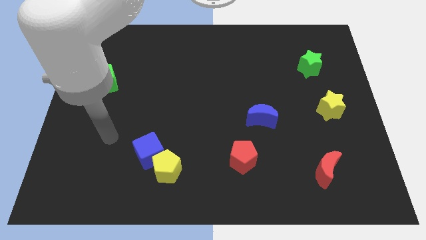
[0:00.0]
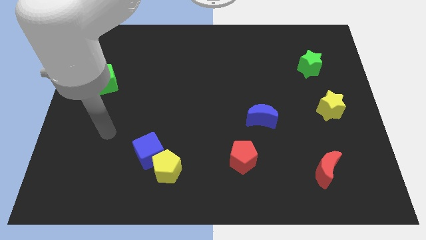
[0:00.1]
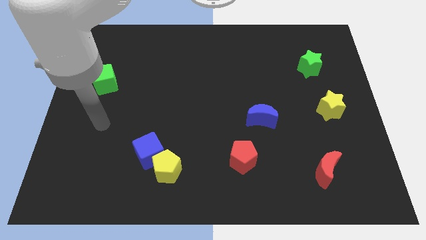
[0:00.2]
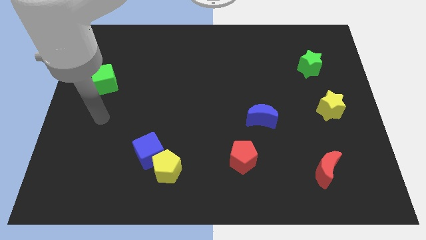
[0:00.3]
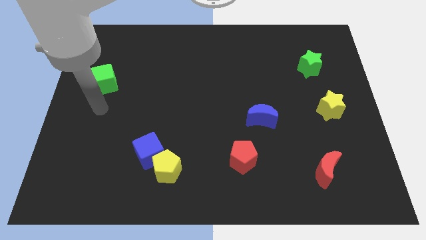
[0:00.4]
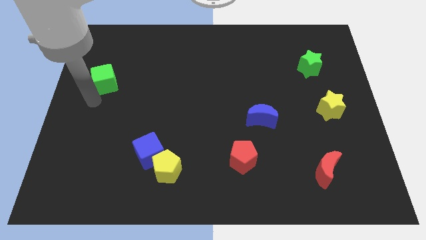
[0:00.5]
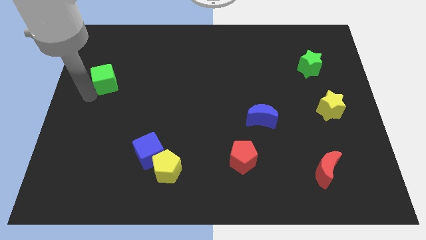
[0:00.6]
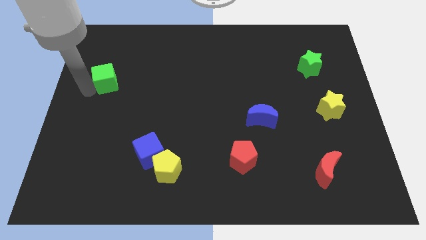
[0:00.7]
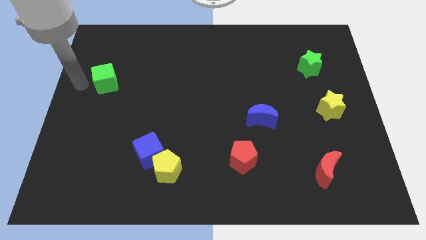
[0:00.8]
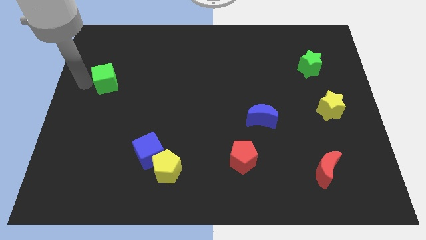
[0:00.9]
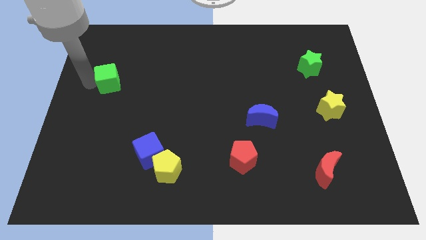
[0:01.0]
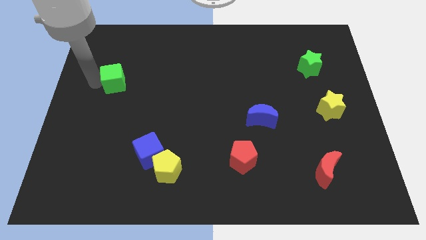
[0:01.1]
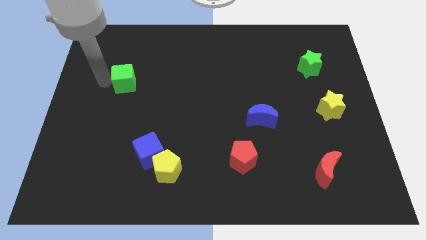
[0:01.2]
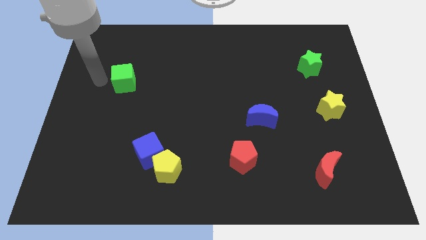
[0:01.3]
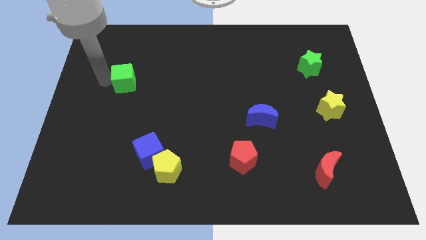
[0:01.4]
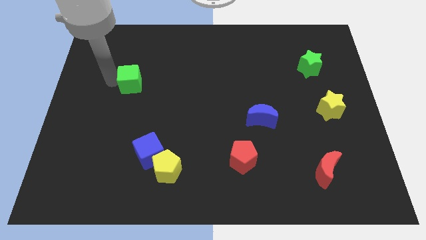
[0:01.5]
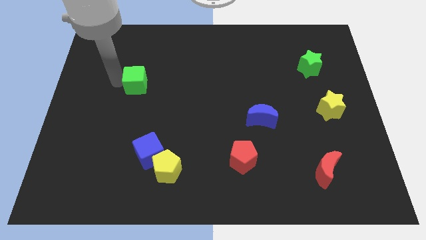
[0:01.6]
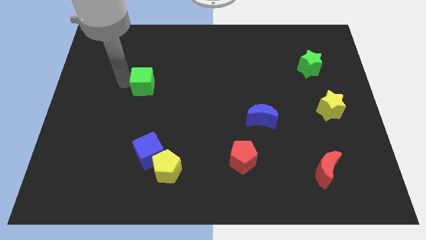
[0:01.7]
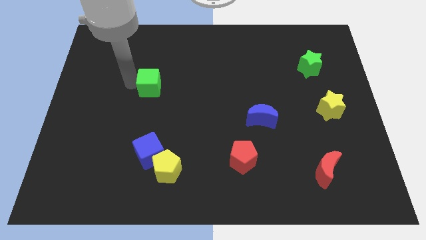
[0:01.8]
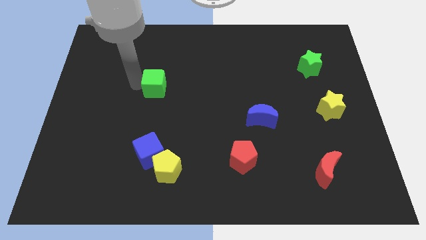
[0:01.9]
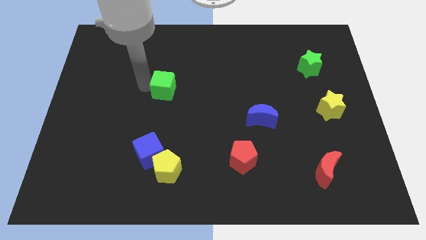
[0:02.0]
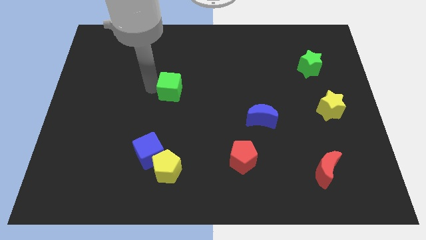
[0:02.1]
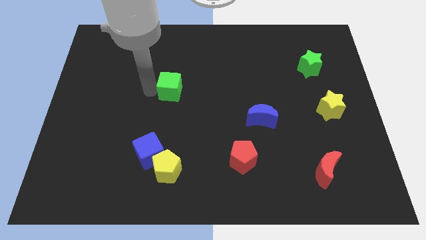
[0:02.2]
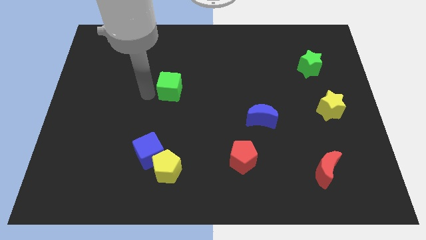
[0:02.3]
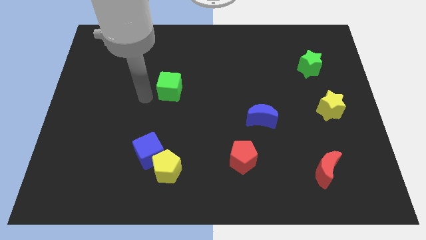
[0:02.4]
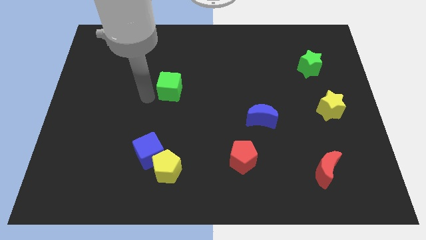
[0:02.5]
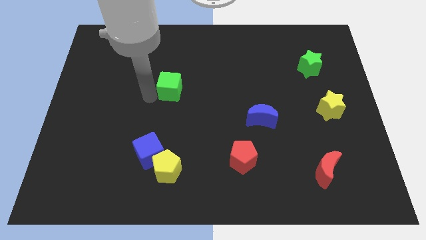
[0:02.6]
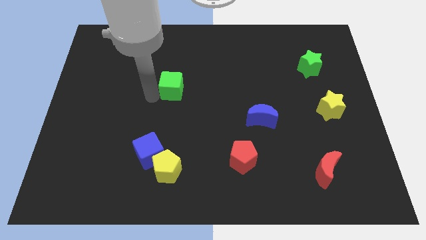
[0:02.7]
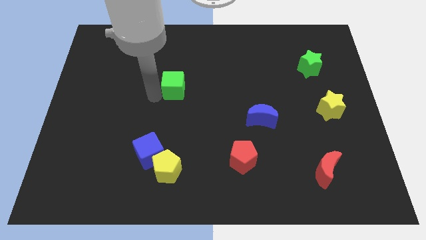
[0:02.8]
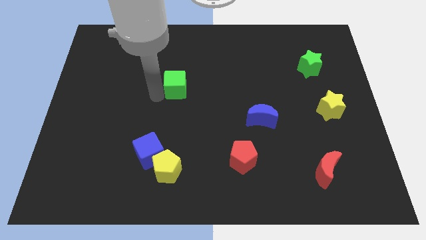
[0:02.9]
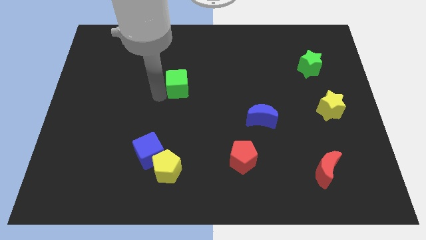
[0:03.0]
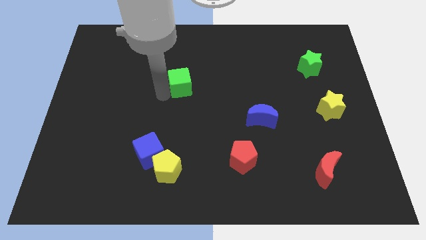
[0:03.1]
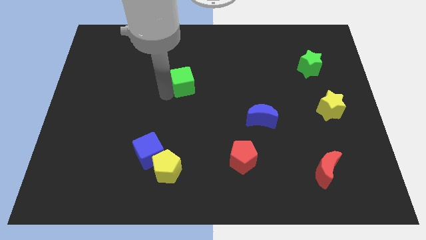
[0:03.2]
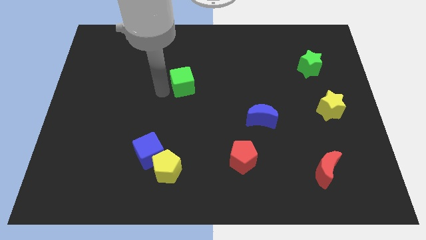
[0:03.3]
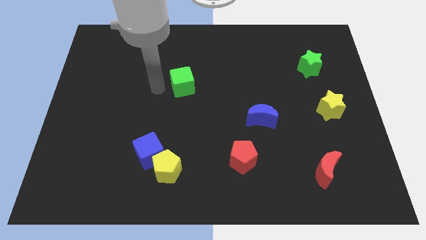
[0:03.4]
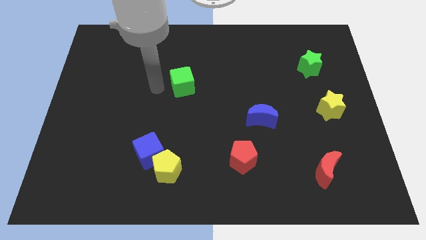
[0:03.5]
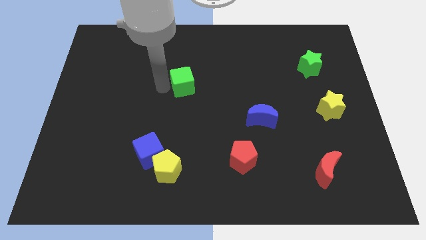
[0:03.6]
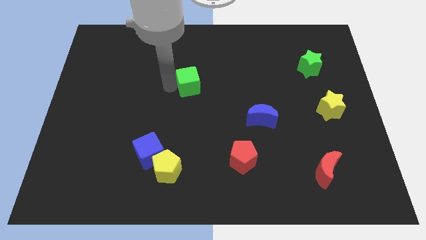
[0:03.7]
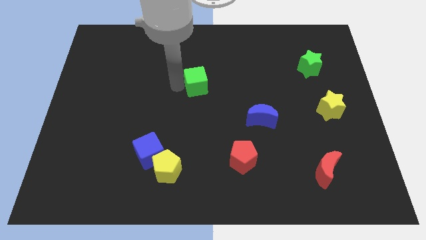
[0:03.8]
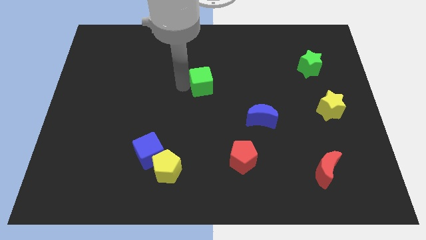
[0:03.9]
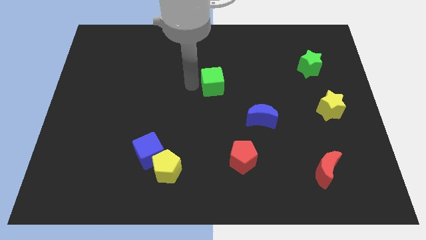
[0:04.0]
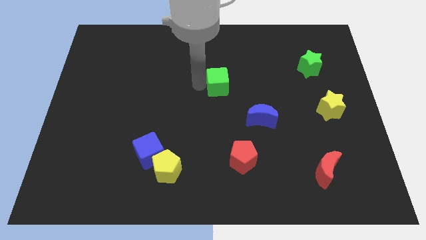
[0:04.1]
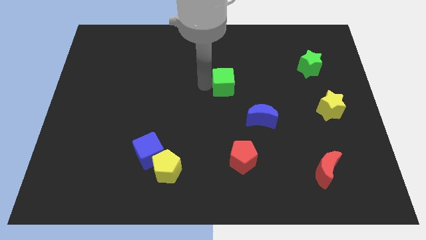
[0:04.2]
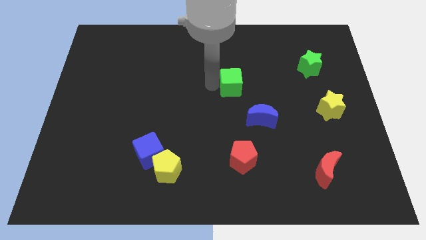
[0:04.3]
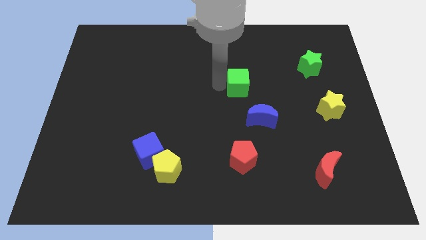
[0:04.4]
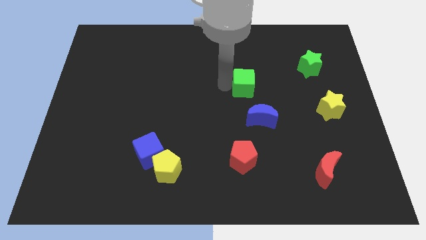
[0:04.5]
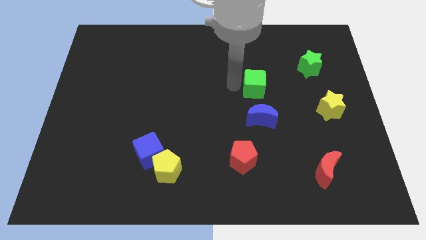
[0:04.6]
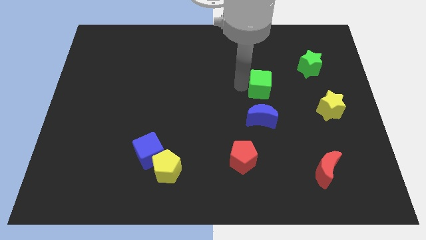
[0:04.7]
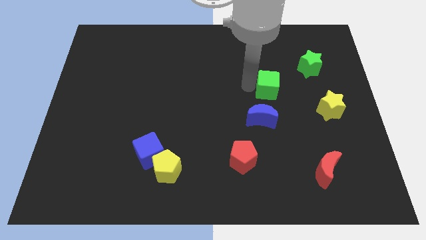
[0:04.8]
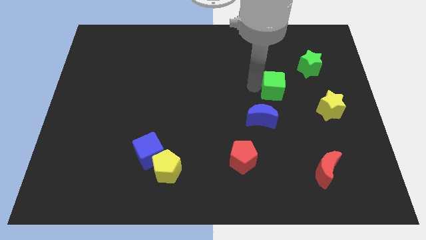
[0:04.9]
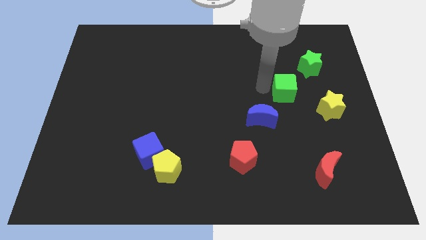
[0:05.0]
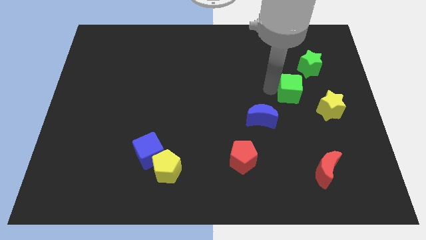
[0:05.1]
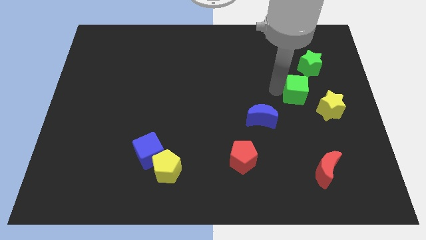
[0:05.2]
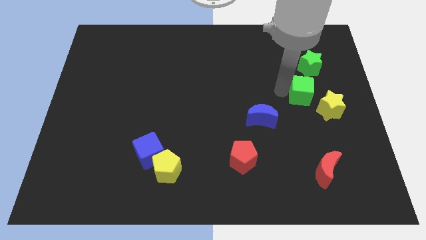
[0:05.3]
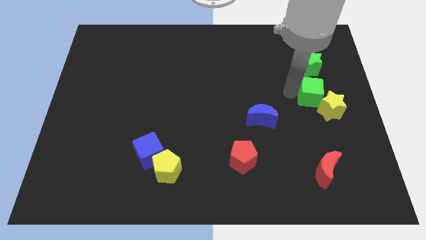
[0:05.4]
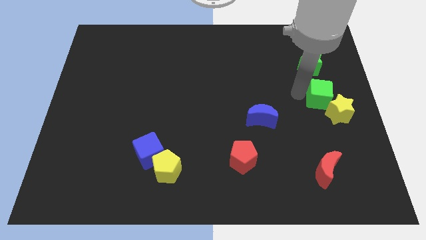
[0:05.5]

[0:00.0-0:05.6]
move the green cube to the center right

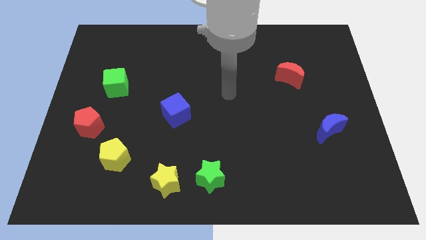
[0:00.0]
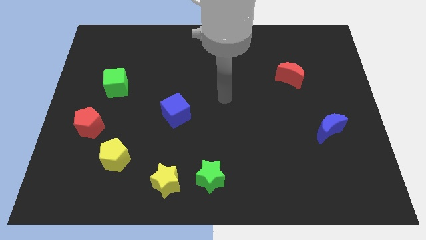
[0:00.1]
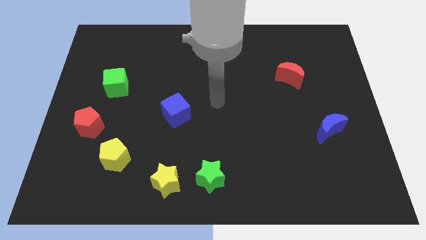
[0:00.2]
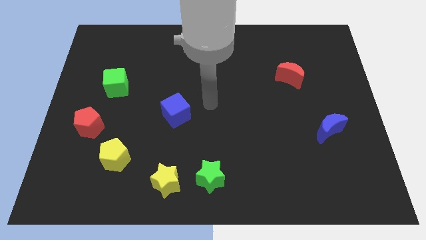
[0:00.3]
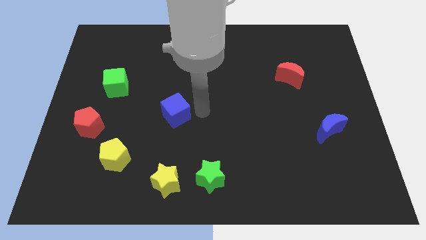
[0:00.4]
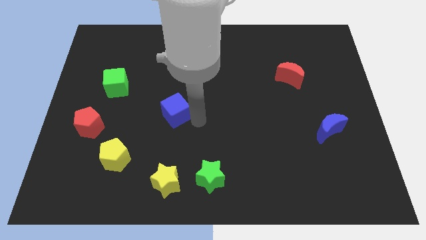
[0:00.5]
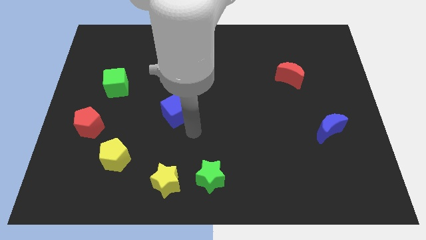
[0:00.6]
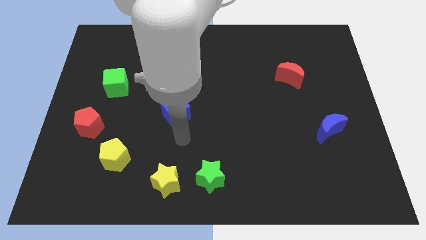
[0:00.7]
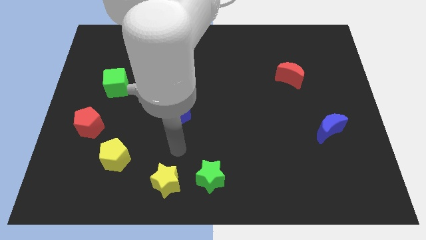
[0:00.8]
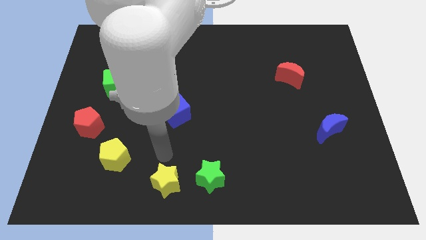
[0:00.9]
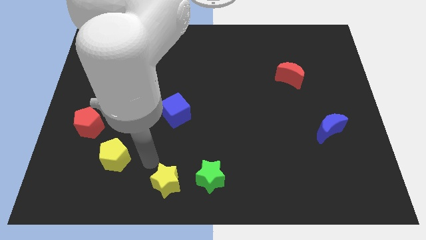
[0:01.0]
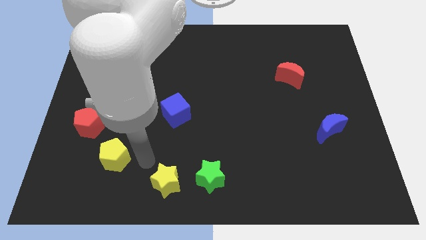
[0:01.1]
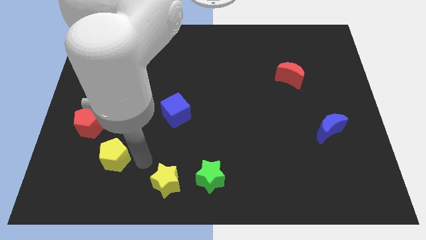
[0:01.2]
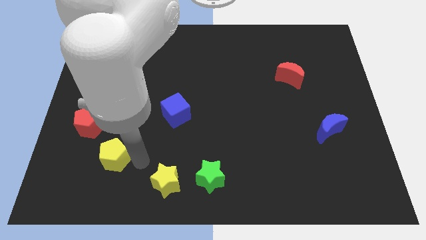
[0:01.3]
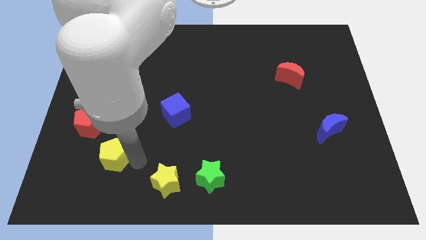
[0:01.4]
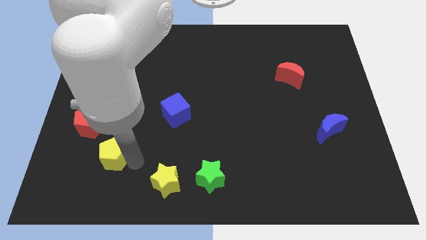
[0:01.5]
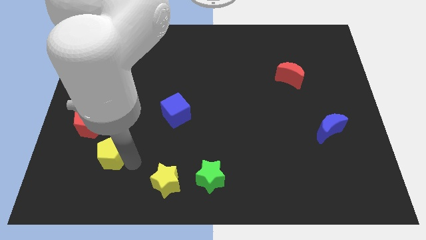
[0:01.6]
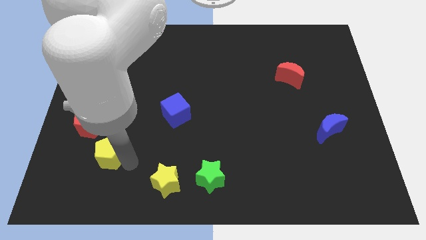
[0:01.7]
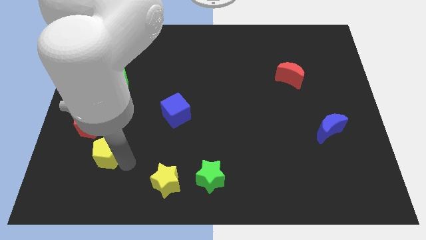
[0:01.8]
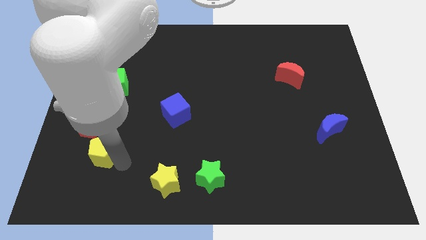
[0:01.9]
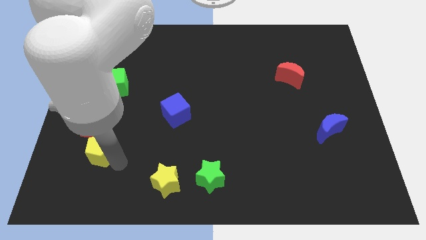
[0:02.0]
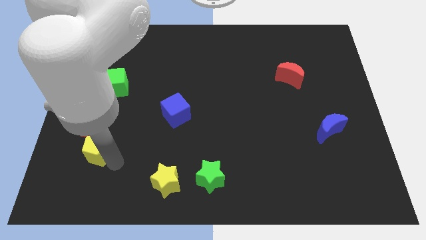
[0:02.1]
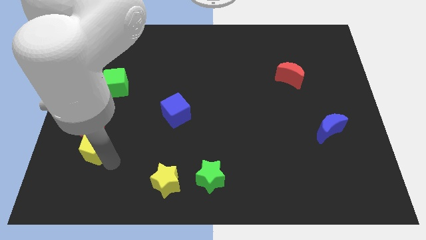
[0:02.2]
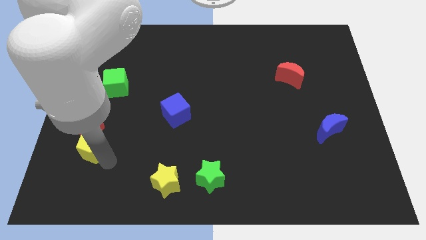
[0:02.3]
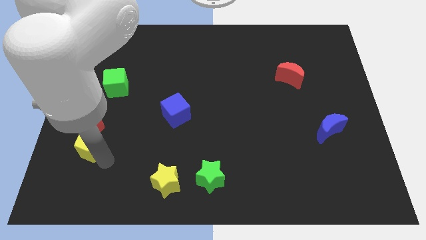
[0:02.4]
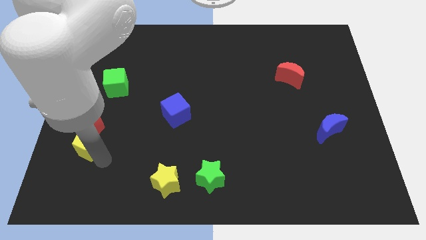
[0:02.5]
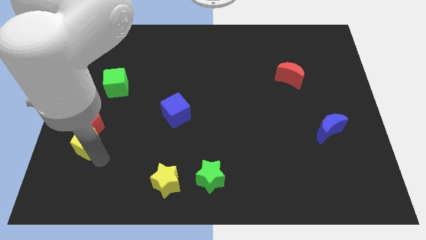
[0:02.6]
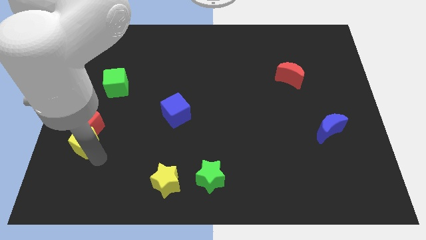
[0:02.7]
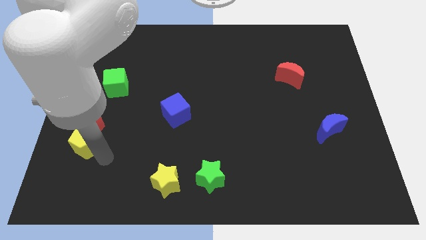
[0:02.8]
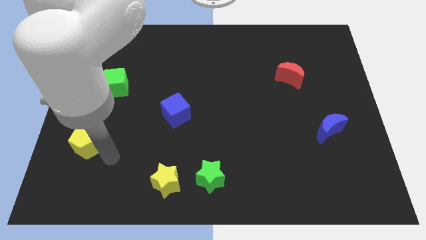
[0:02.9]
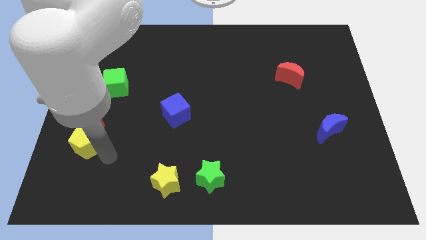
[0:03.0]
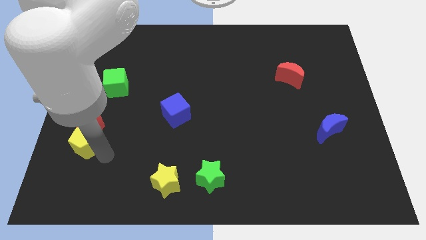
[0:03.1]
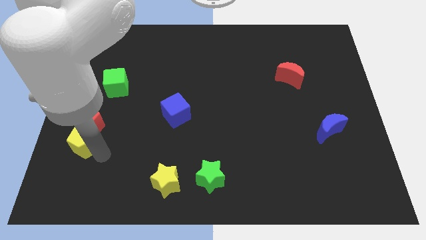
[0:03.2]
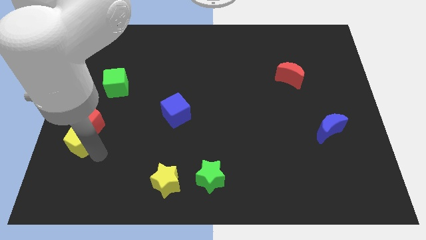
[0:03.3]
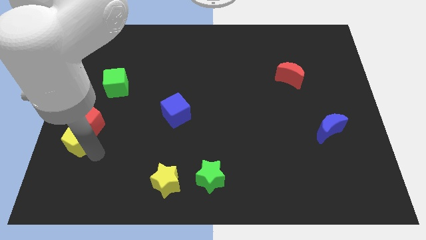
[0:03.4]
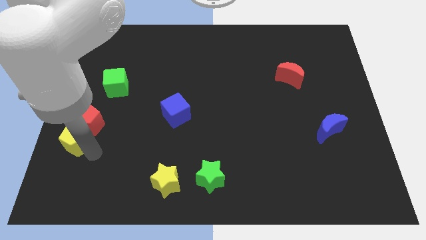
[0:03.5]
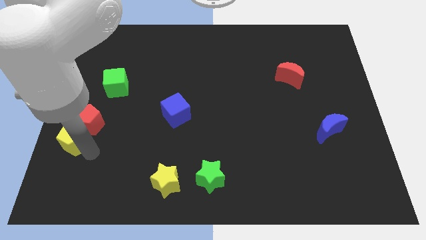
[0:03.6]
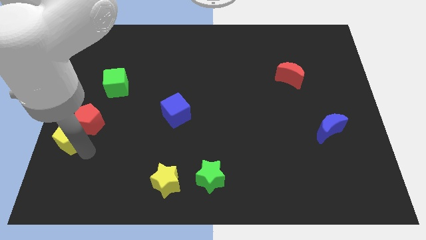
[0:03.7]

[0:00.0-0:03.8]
move the yellow pentagon to the left side
